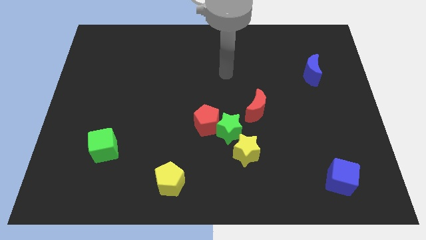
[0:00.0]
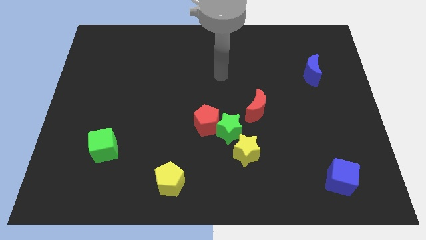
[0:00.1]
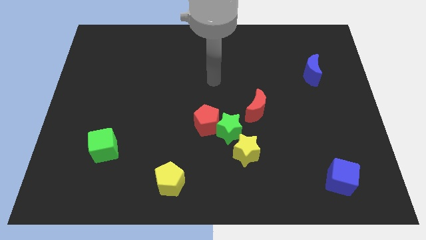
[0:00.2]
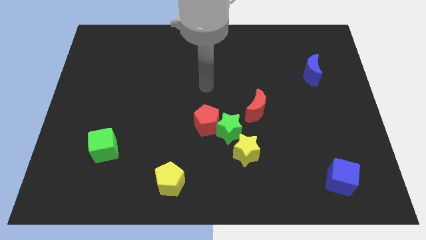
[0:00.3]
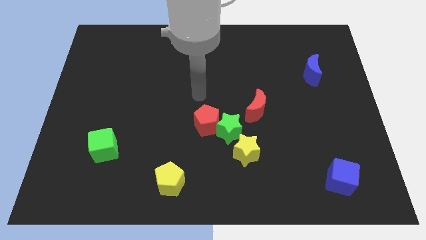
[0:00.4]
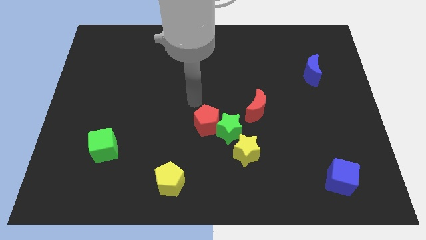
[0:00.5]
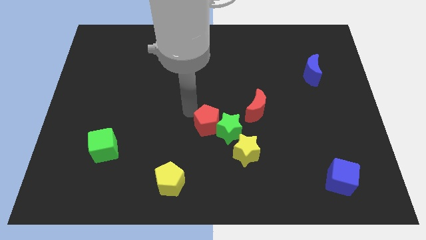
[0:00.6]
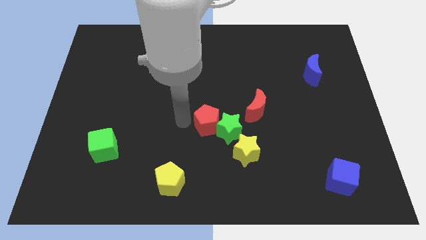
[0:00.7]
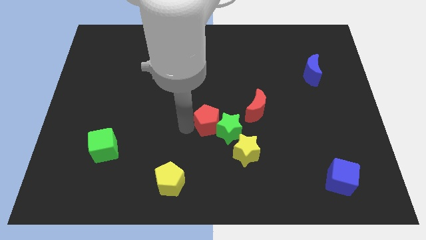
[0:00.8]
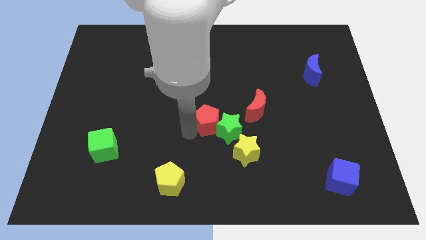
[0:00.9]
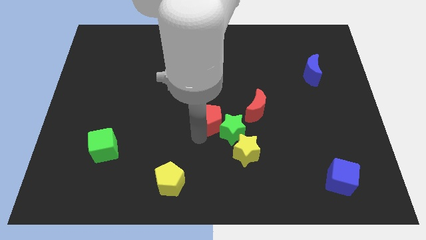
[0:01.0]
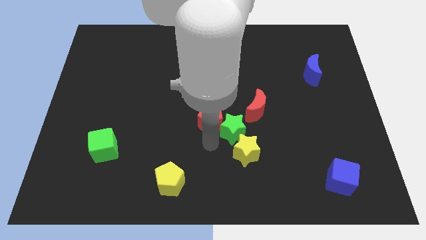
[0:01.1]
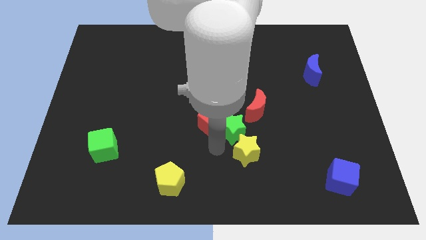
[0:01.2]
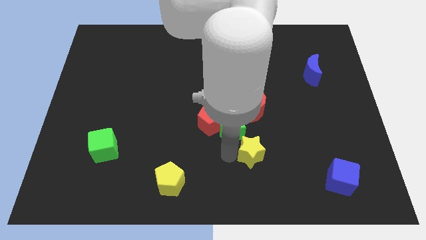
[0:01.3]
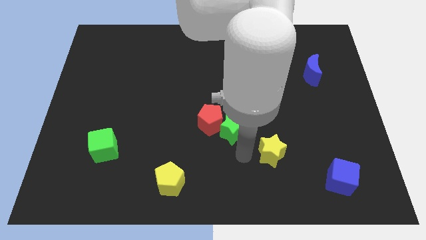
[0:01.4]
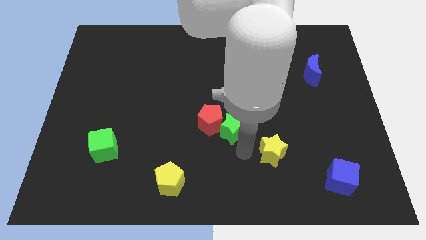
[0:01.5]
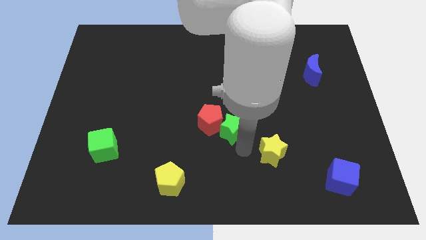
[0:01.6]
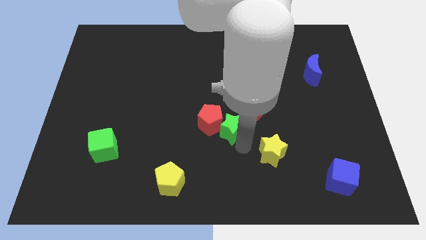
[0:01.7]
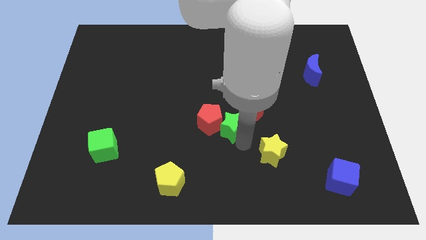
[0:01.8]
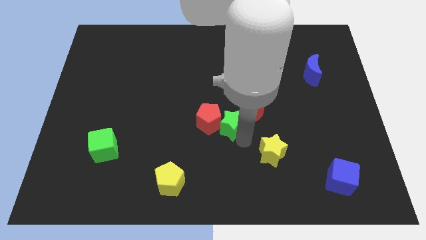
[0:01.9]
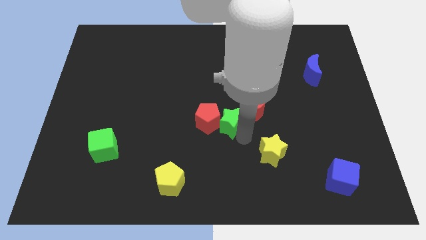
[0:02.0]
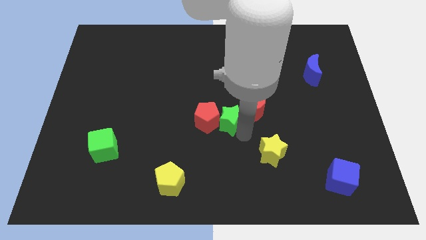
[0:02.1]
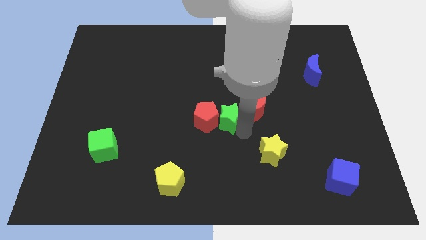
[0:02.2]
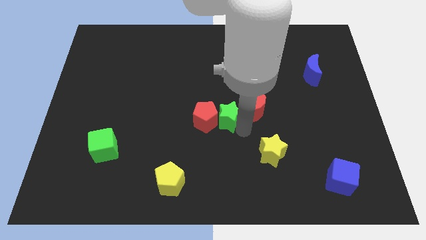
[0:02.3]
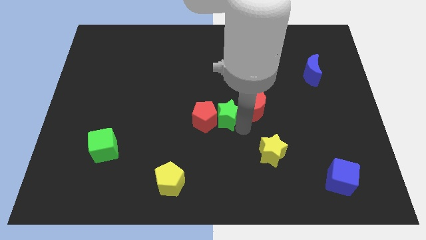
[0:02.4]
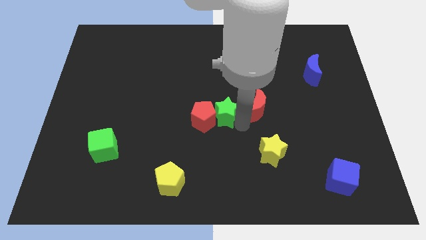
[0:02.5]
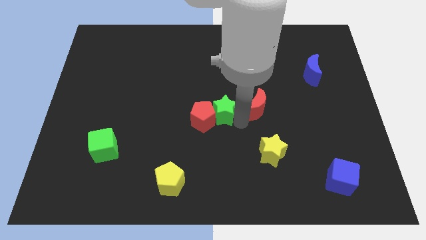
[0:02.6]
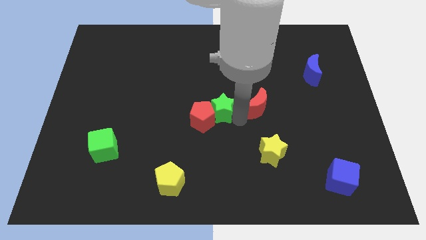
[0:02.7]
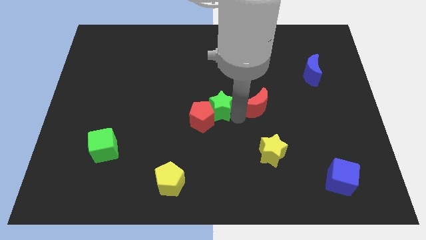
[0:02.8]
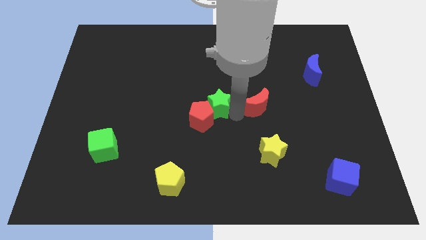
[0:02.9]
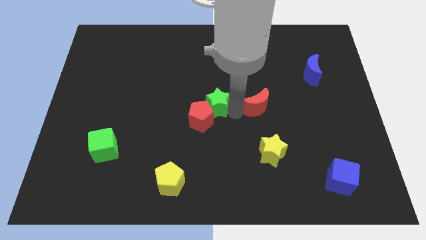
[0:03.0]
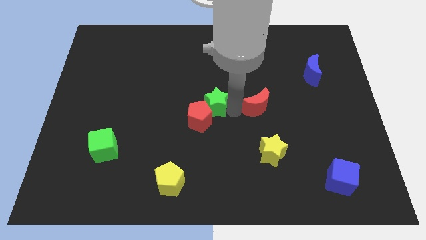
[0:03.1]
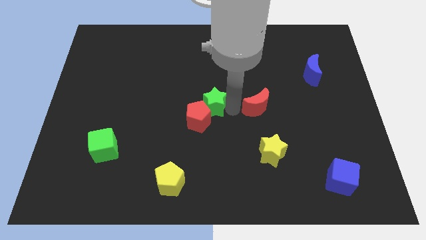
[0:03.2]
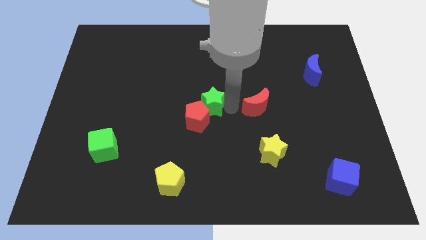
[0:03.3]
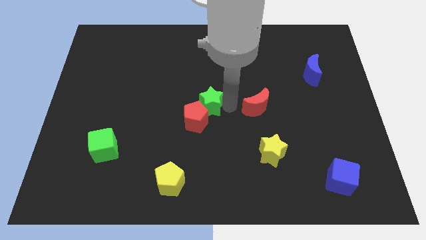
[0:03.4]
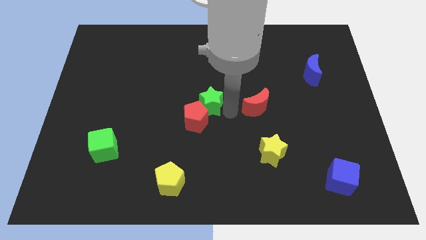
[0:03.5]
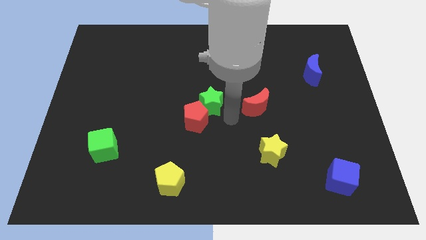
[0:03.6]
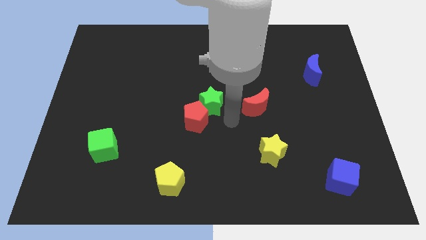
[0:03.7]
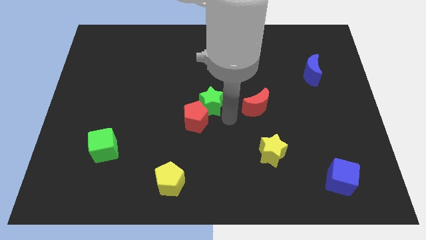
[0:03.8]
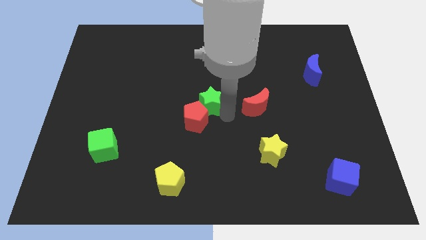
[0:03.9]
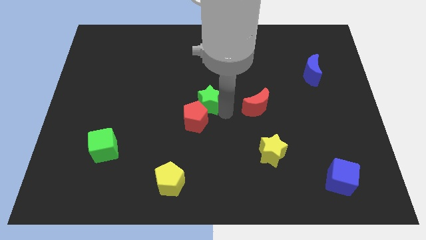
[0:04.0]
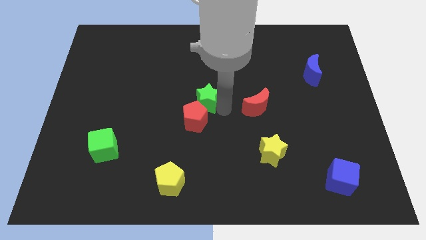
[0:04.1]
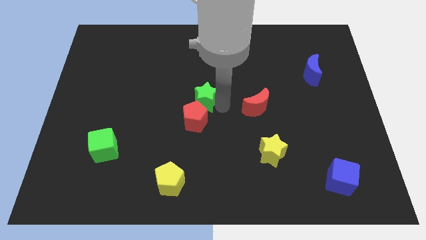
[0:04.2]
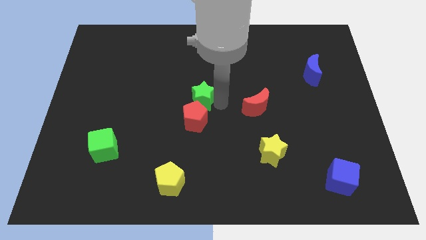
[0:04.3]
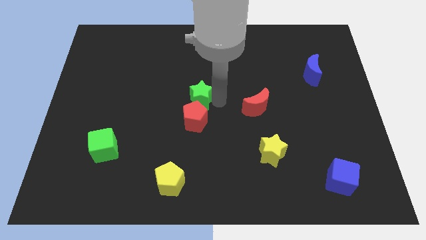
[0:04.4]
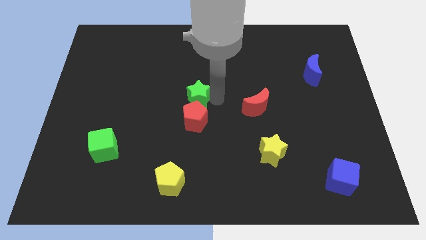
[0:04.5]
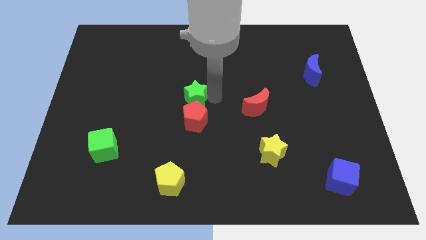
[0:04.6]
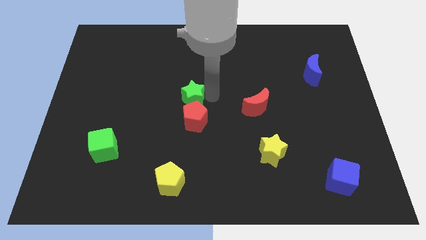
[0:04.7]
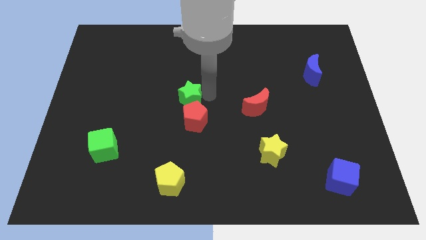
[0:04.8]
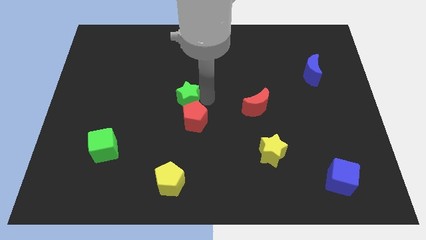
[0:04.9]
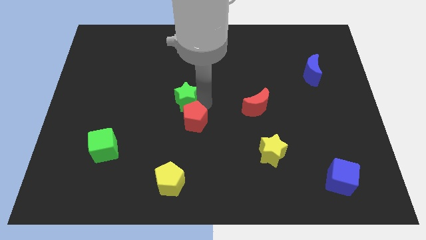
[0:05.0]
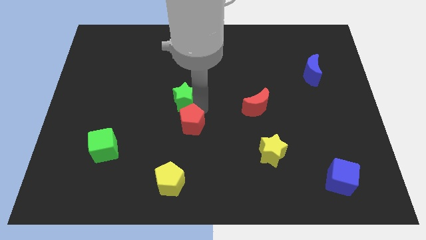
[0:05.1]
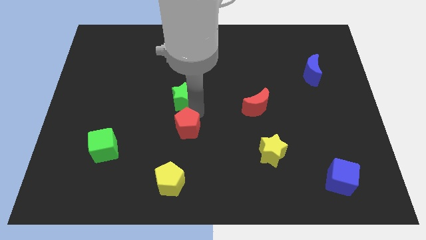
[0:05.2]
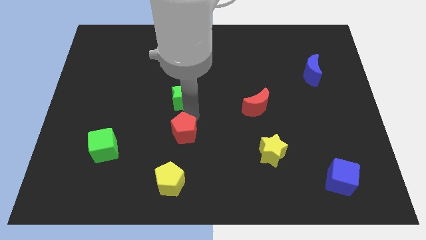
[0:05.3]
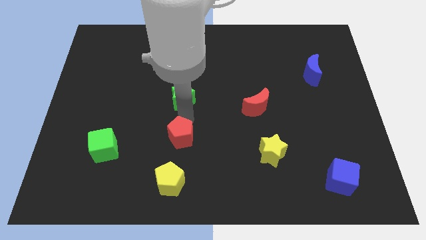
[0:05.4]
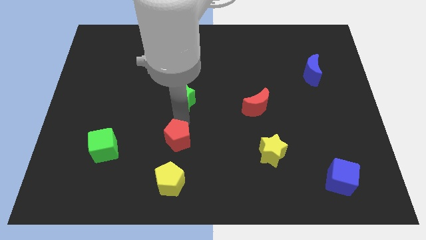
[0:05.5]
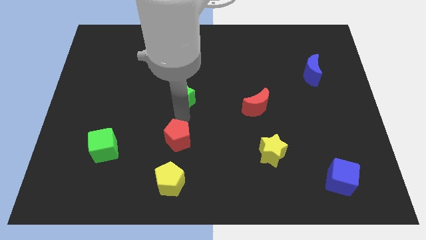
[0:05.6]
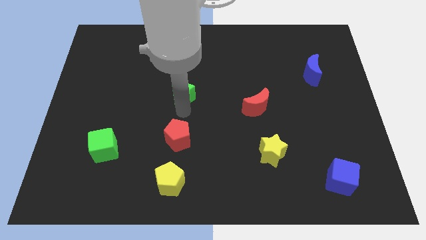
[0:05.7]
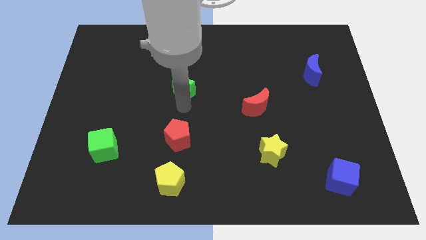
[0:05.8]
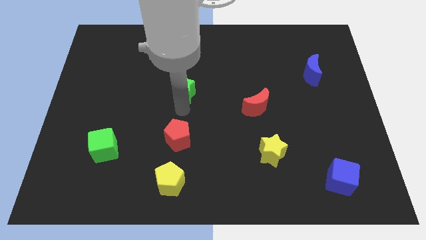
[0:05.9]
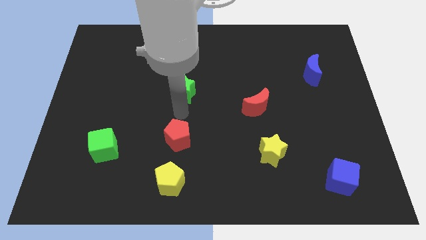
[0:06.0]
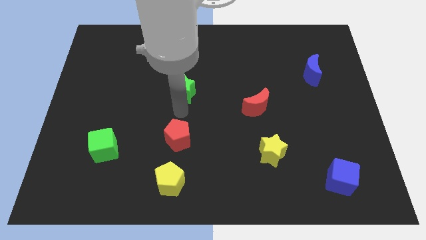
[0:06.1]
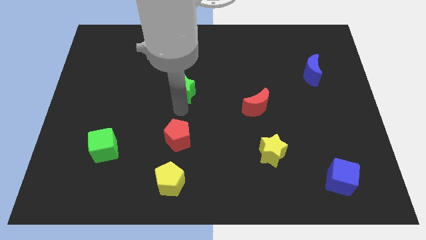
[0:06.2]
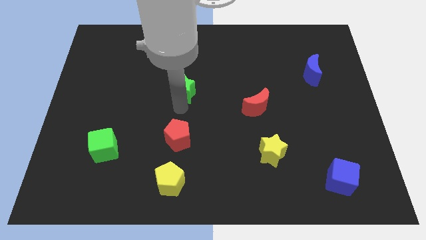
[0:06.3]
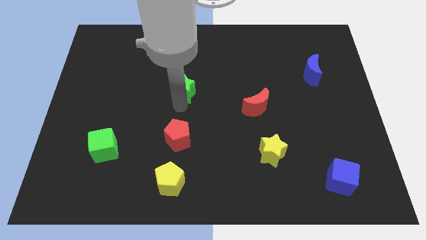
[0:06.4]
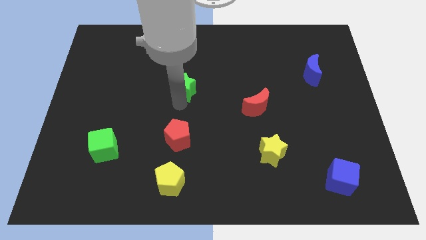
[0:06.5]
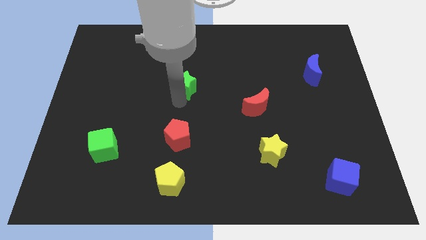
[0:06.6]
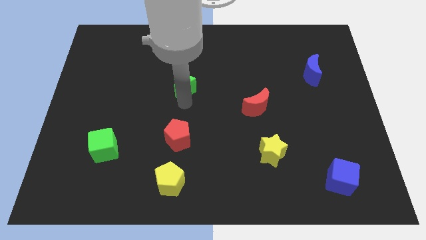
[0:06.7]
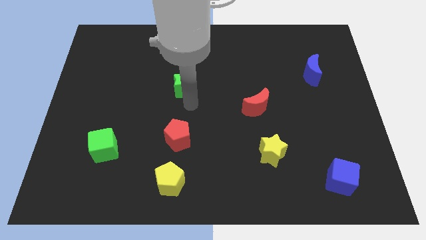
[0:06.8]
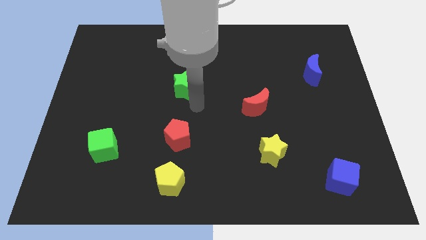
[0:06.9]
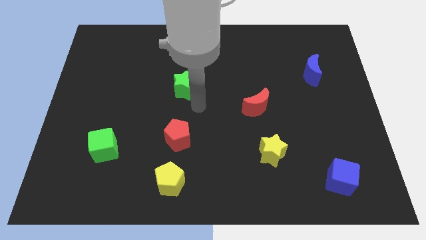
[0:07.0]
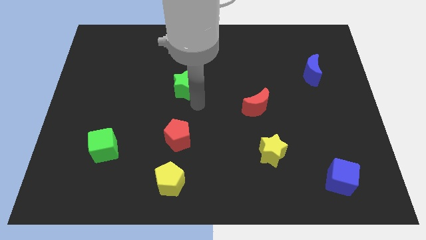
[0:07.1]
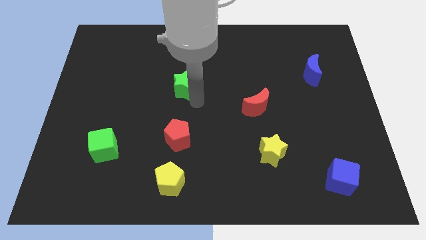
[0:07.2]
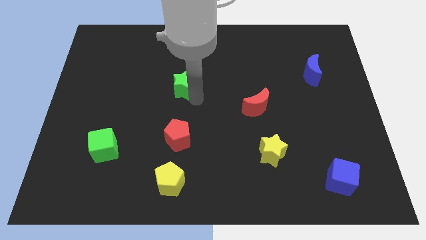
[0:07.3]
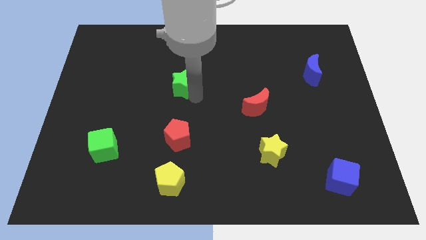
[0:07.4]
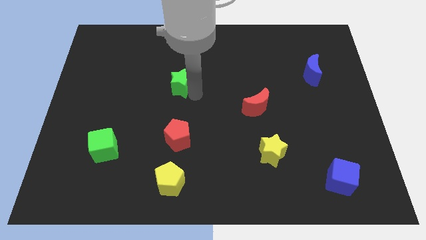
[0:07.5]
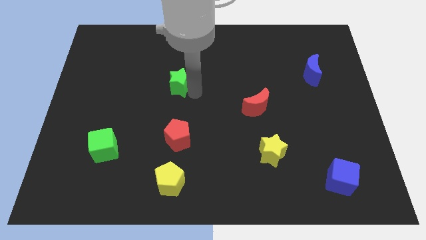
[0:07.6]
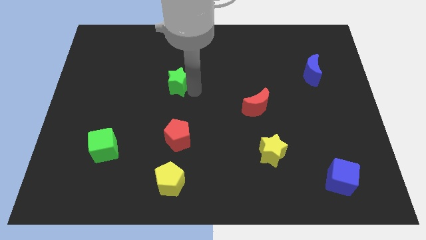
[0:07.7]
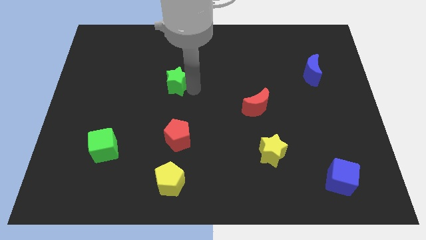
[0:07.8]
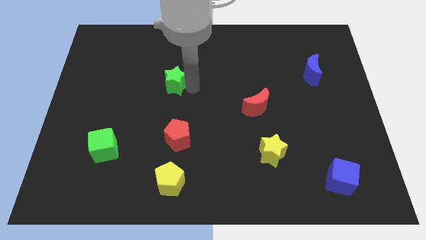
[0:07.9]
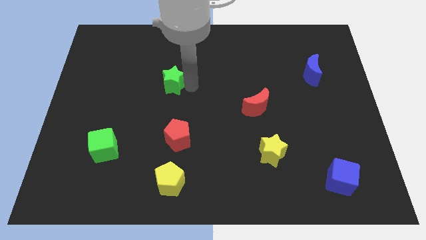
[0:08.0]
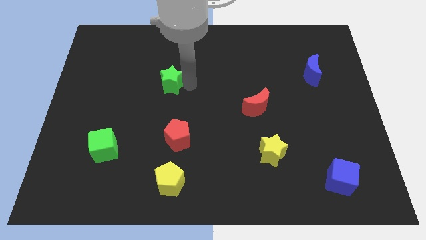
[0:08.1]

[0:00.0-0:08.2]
slide the green star diagonally upwards and left
